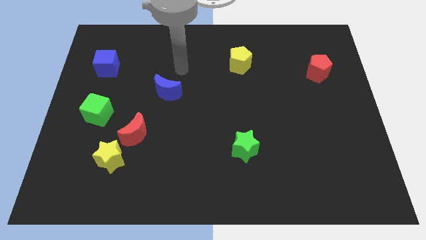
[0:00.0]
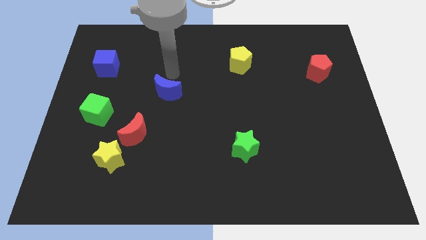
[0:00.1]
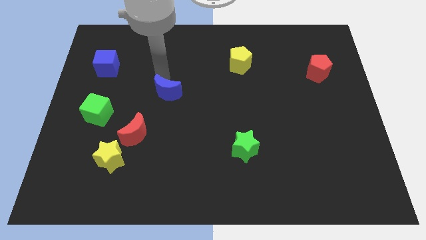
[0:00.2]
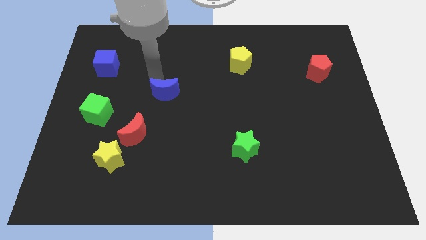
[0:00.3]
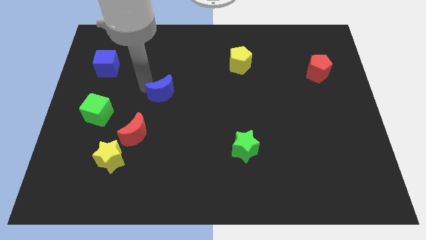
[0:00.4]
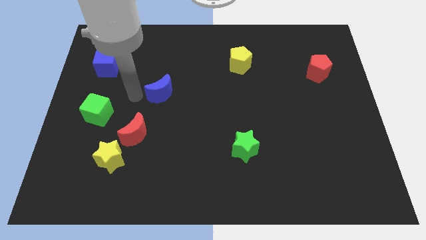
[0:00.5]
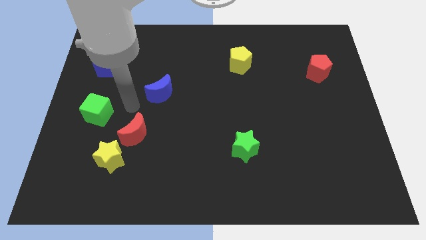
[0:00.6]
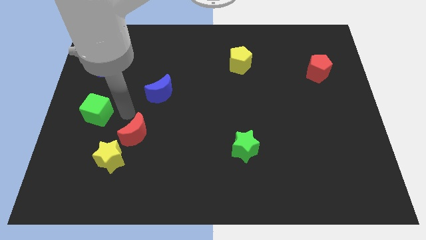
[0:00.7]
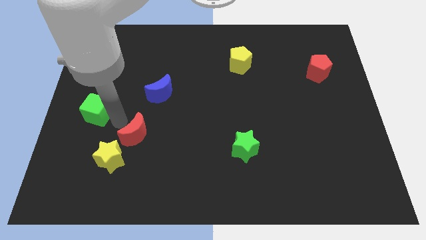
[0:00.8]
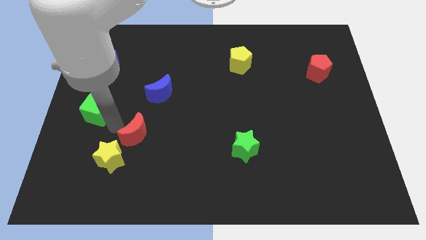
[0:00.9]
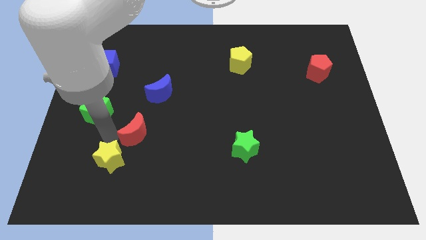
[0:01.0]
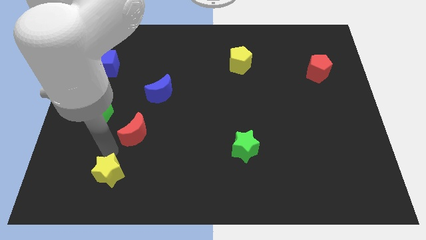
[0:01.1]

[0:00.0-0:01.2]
pull the red moon apart from the yellow star

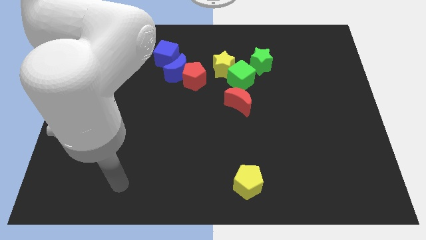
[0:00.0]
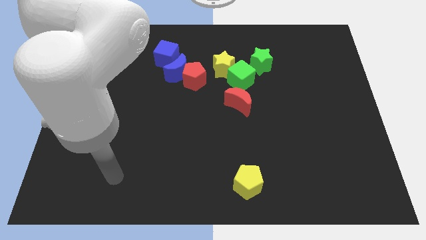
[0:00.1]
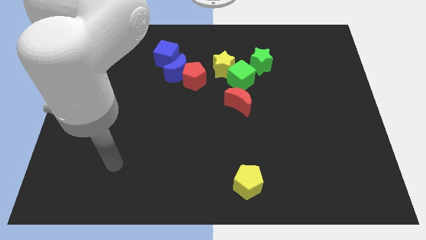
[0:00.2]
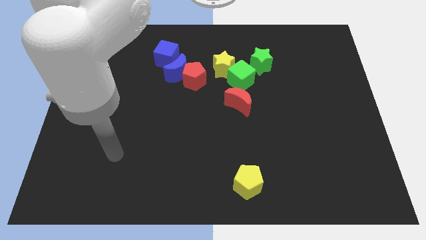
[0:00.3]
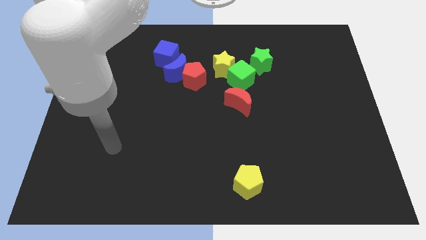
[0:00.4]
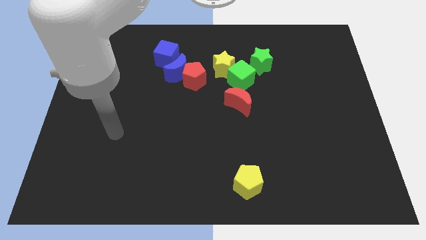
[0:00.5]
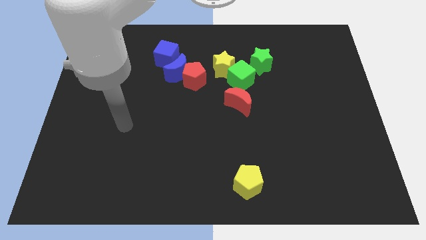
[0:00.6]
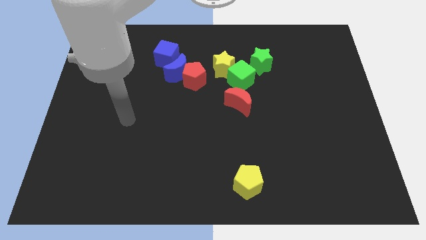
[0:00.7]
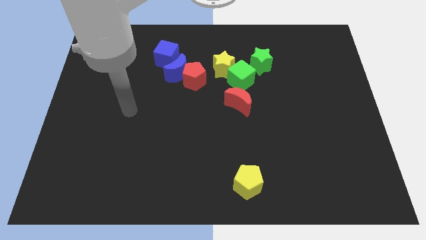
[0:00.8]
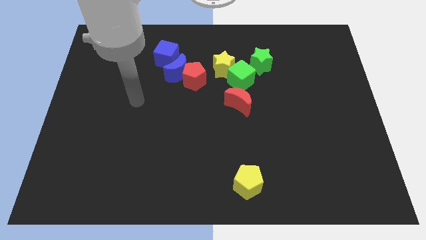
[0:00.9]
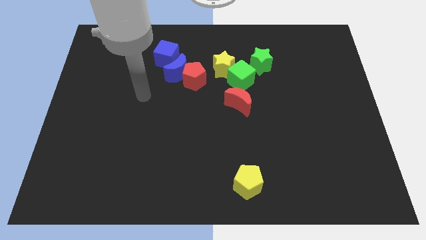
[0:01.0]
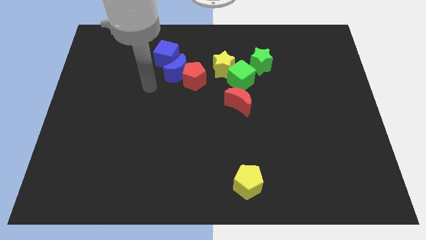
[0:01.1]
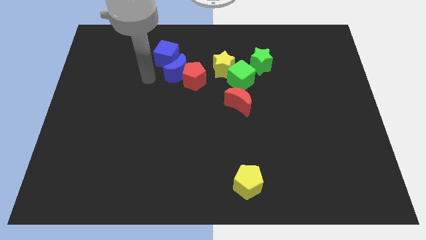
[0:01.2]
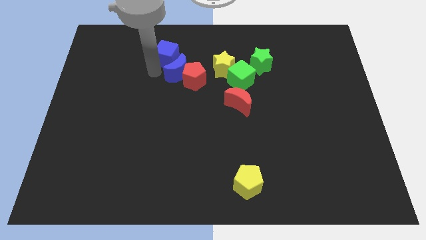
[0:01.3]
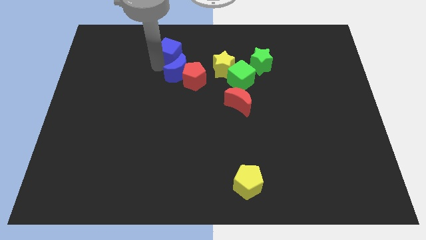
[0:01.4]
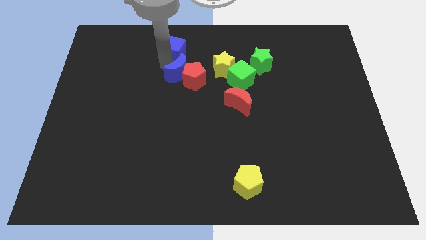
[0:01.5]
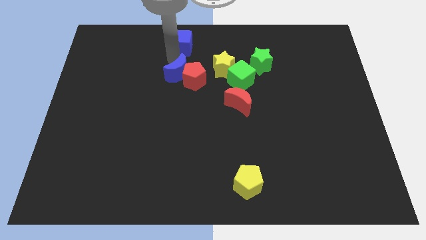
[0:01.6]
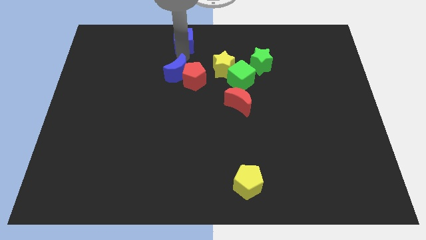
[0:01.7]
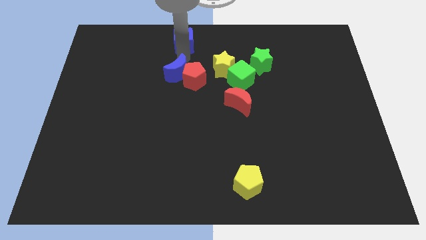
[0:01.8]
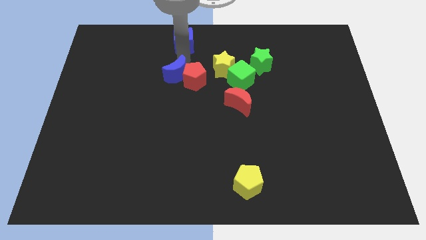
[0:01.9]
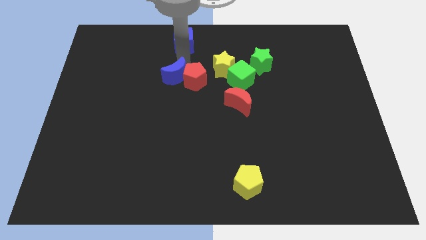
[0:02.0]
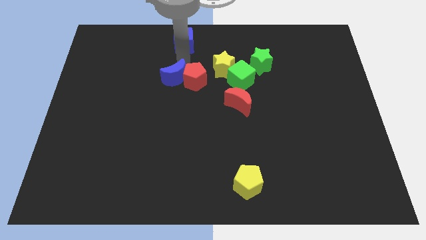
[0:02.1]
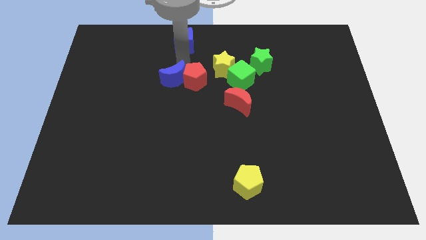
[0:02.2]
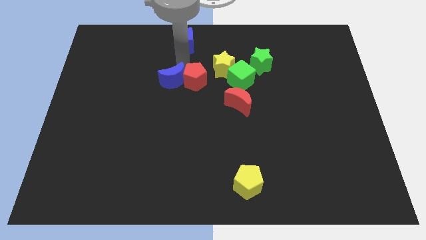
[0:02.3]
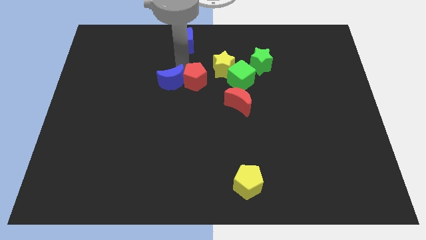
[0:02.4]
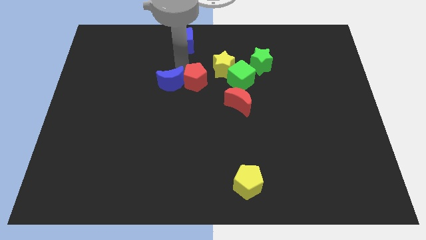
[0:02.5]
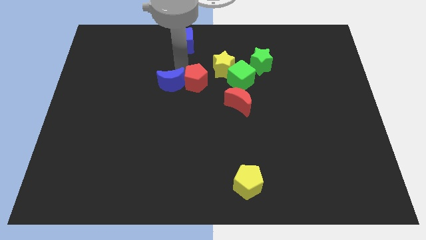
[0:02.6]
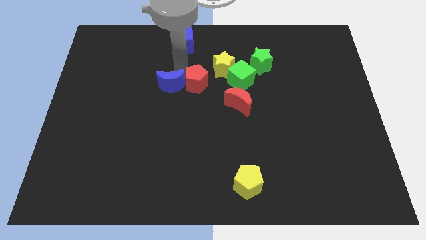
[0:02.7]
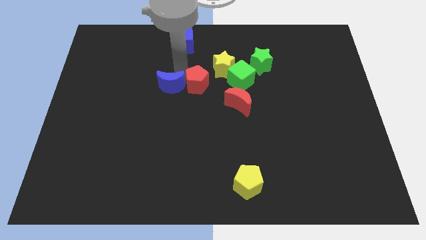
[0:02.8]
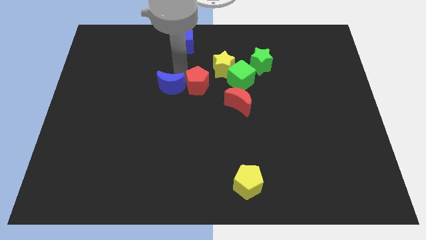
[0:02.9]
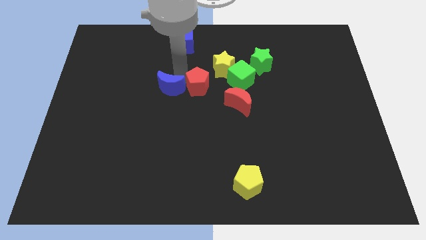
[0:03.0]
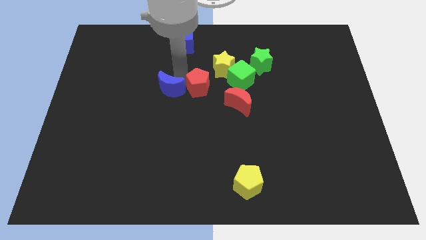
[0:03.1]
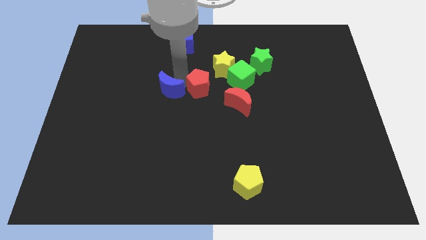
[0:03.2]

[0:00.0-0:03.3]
move the blue moon away from the red pentagon and blue cube

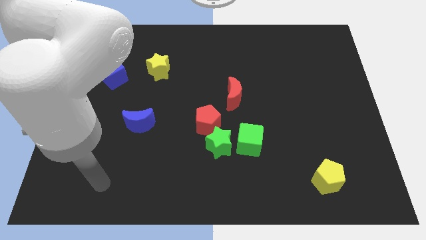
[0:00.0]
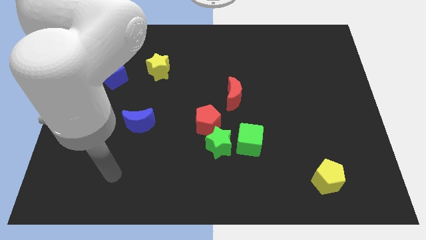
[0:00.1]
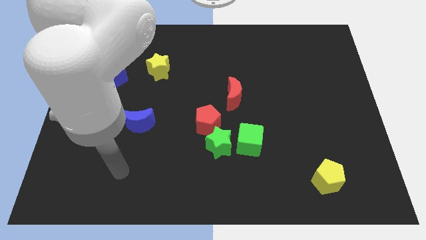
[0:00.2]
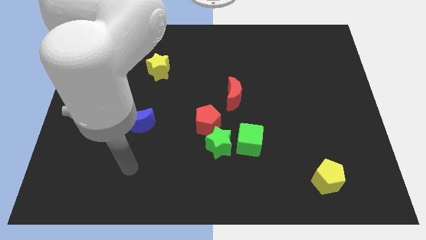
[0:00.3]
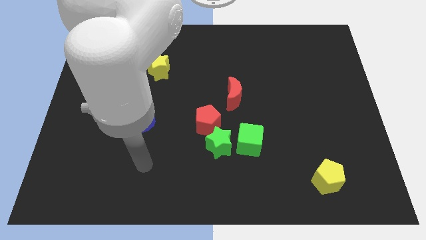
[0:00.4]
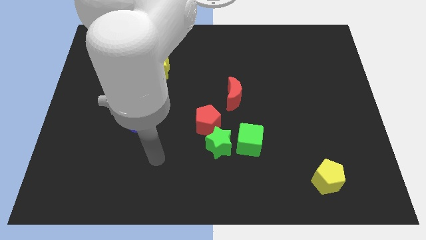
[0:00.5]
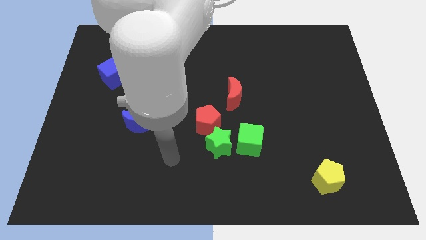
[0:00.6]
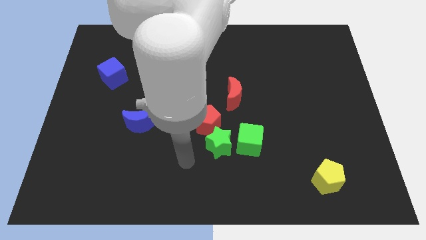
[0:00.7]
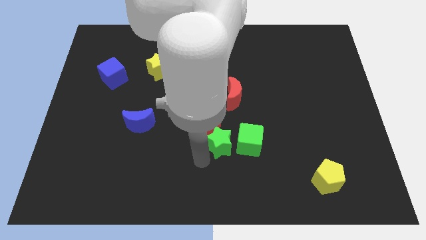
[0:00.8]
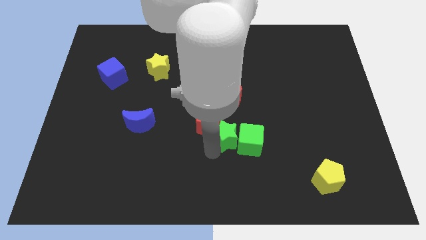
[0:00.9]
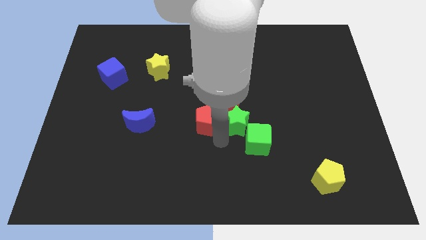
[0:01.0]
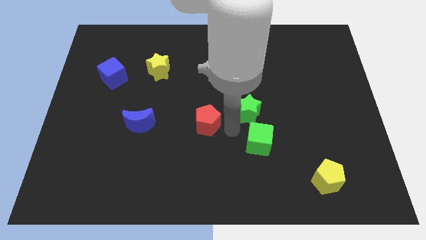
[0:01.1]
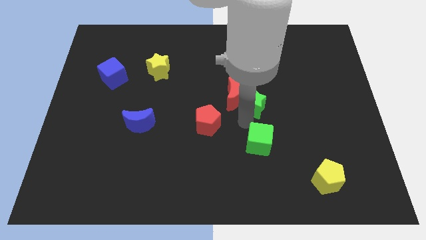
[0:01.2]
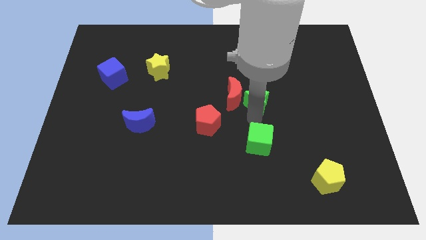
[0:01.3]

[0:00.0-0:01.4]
pull the green cube apart from the green star

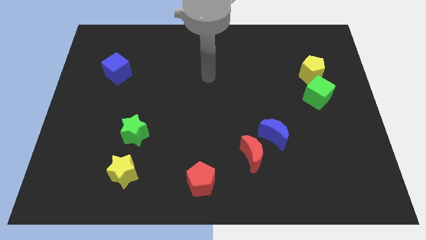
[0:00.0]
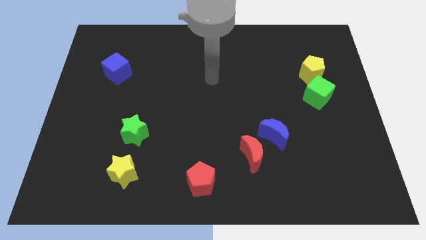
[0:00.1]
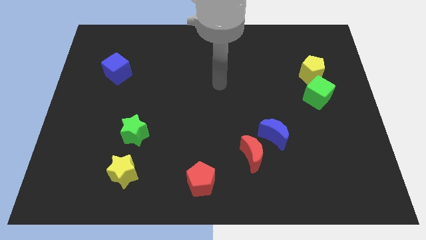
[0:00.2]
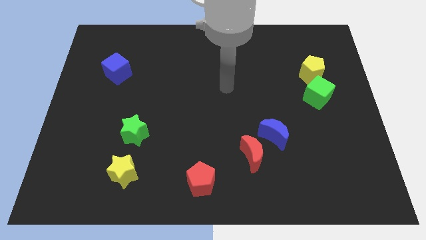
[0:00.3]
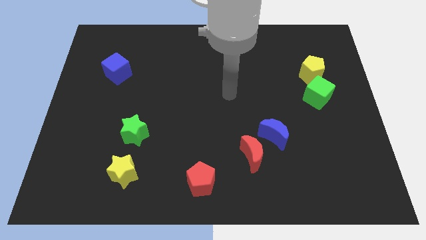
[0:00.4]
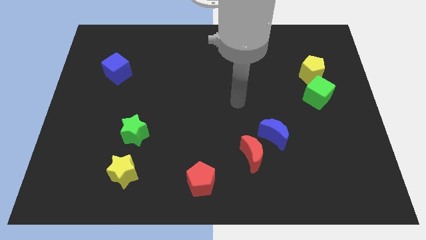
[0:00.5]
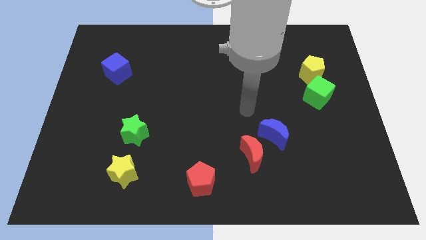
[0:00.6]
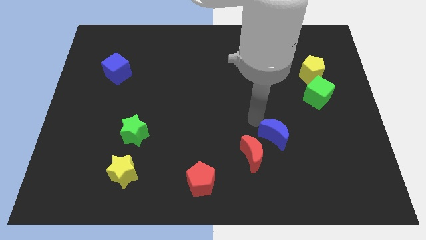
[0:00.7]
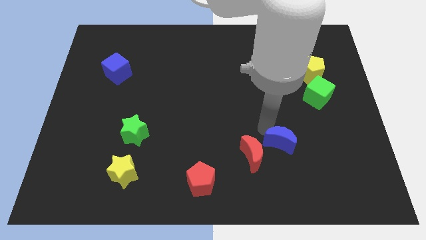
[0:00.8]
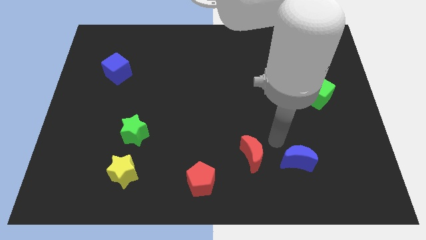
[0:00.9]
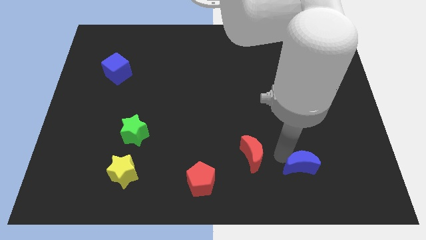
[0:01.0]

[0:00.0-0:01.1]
move the red moon away from the blue moon

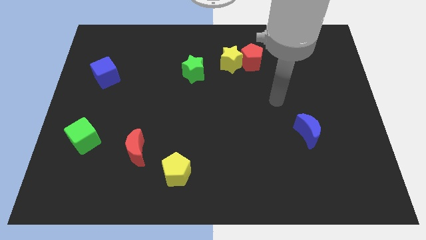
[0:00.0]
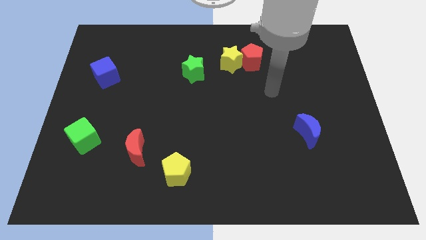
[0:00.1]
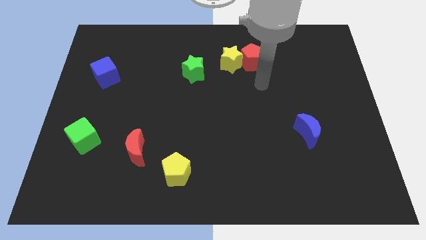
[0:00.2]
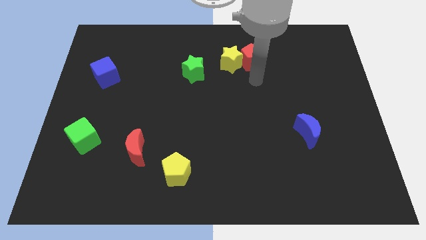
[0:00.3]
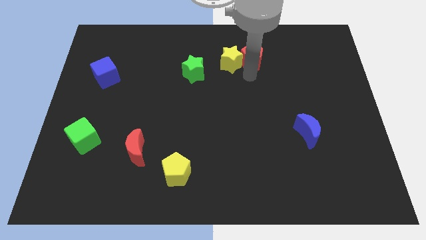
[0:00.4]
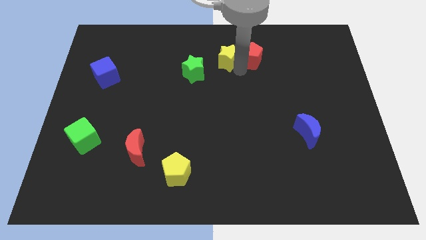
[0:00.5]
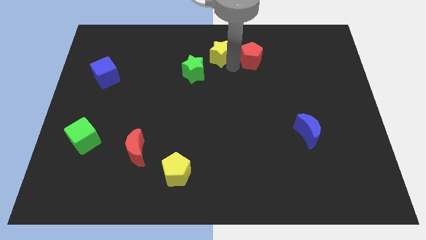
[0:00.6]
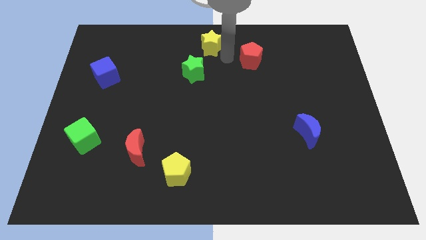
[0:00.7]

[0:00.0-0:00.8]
separate the red pentagon from the yellow star

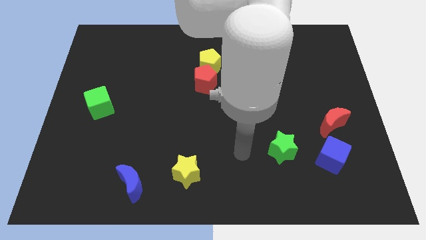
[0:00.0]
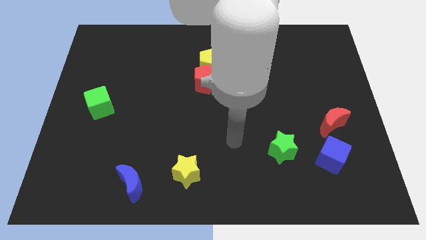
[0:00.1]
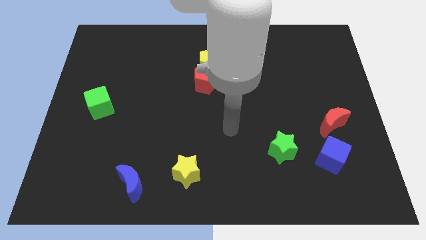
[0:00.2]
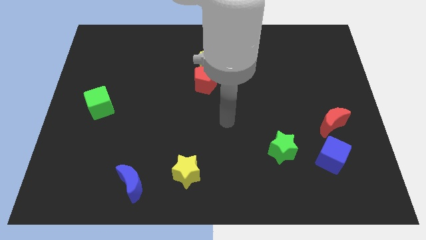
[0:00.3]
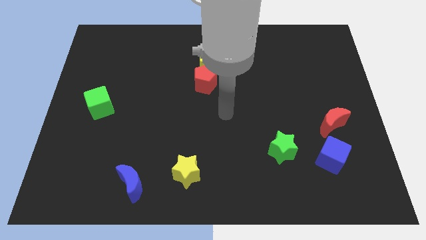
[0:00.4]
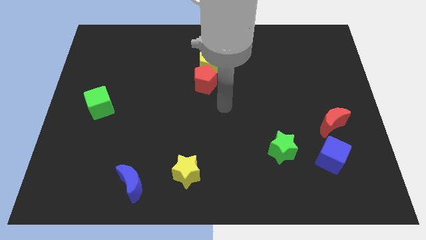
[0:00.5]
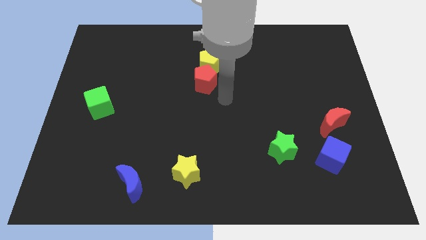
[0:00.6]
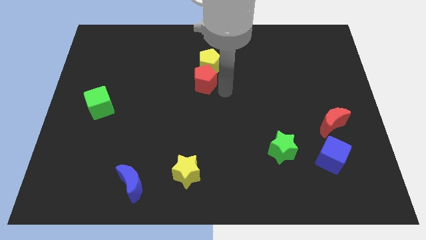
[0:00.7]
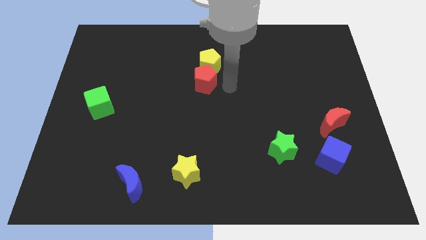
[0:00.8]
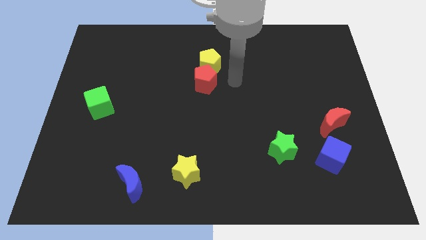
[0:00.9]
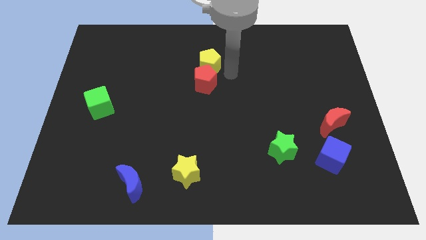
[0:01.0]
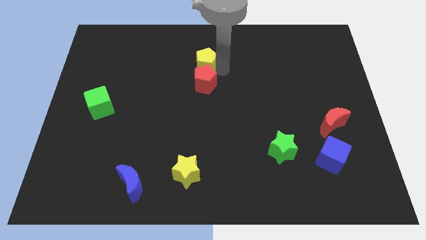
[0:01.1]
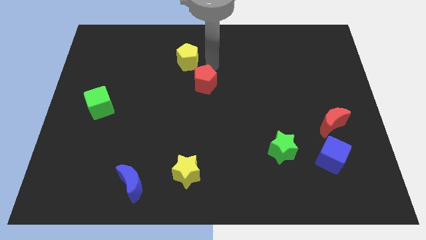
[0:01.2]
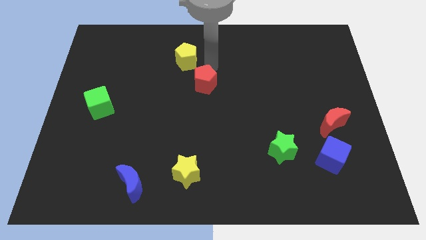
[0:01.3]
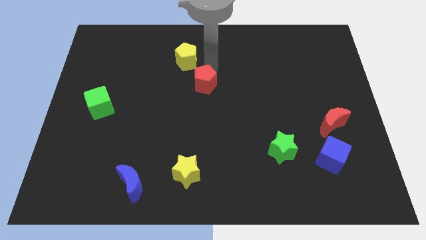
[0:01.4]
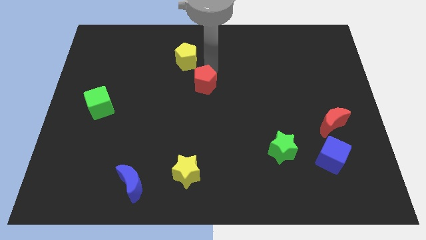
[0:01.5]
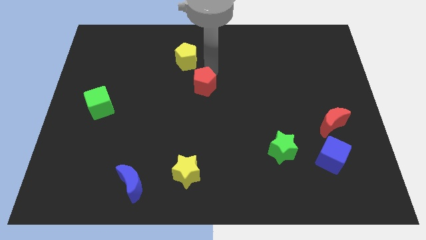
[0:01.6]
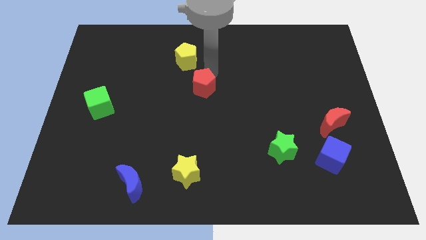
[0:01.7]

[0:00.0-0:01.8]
move the red pentagon away from the yellow pentagon
